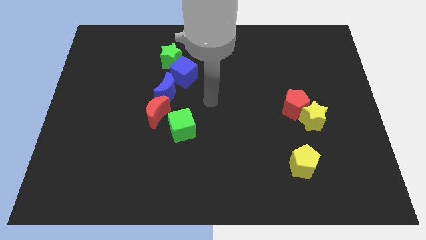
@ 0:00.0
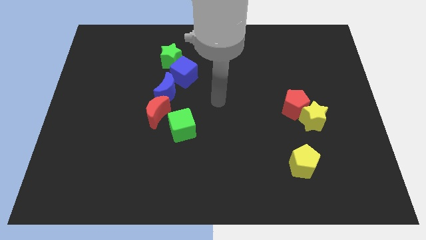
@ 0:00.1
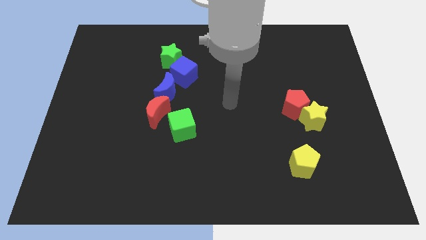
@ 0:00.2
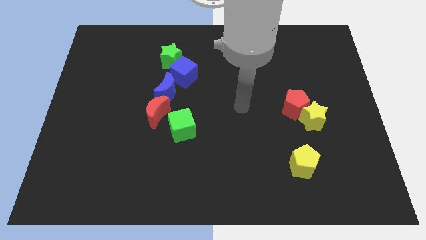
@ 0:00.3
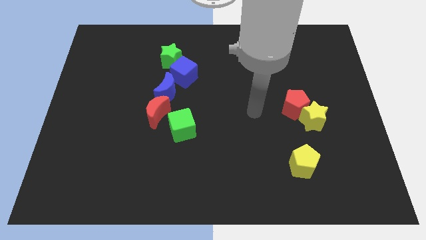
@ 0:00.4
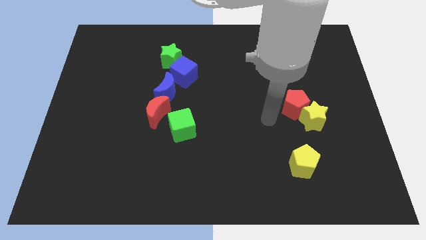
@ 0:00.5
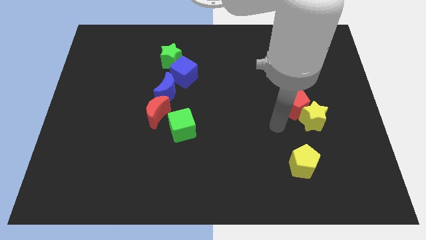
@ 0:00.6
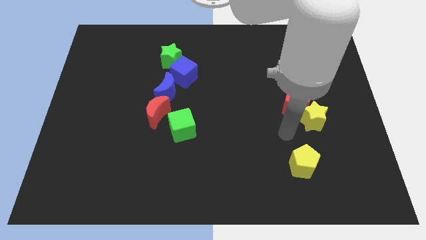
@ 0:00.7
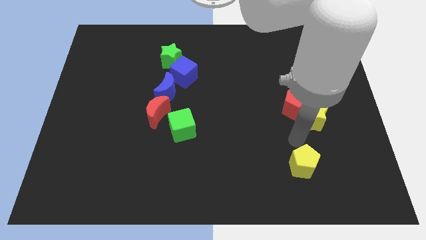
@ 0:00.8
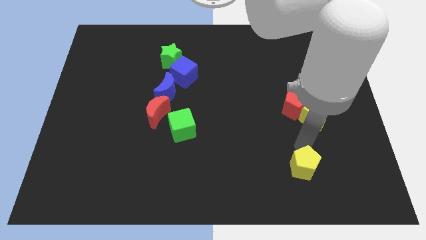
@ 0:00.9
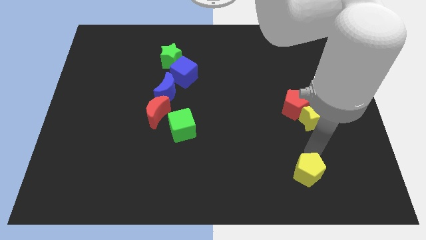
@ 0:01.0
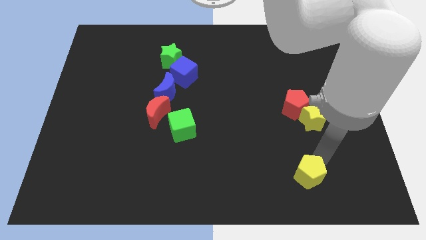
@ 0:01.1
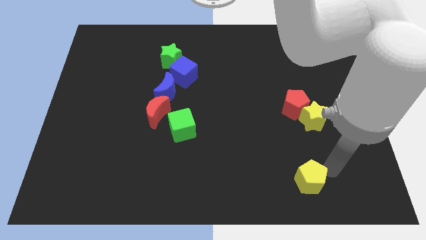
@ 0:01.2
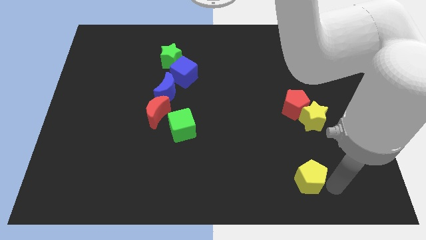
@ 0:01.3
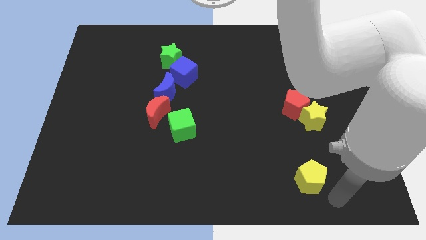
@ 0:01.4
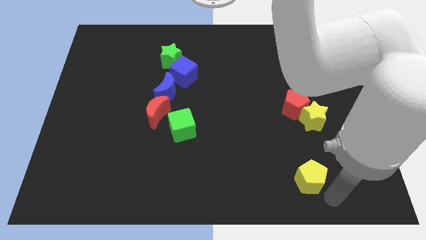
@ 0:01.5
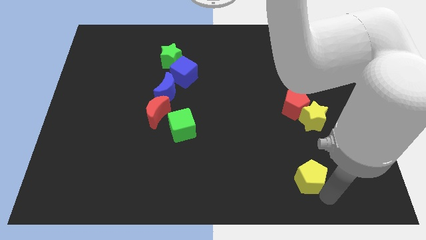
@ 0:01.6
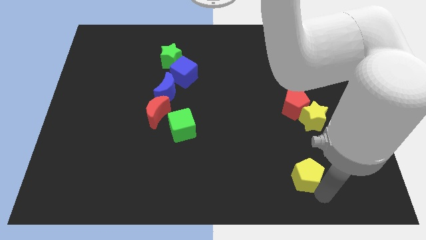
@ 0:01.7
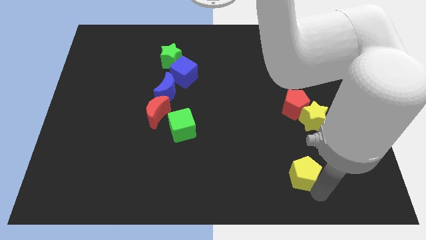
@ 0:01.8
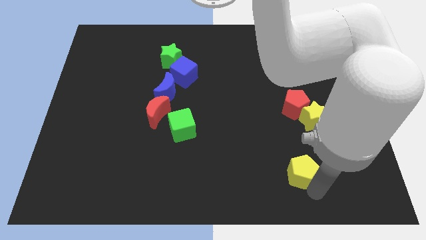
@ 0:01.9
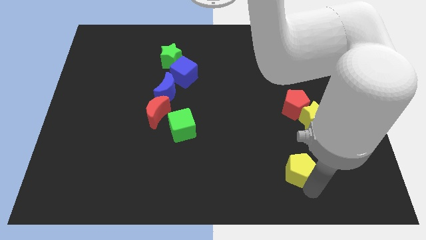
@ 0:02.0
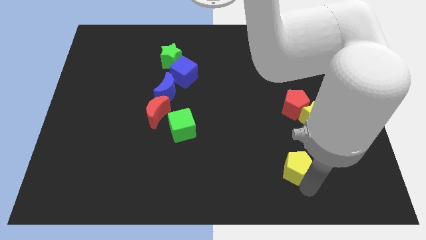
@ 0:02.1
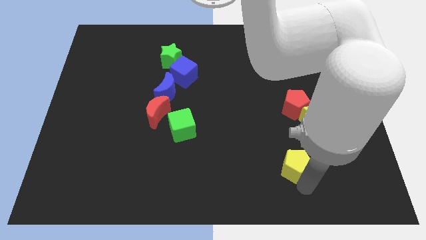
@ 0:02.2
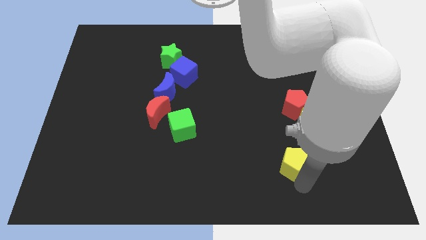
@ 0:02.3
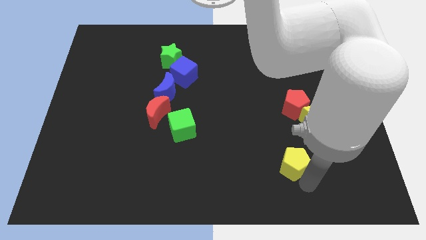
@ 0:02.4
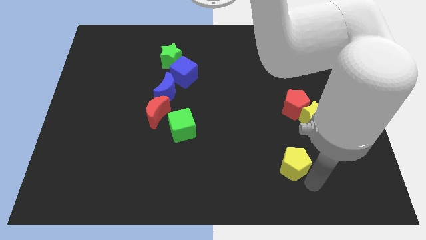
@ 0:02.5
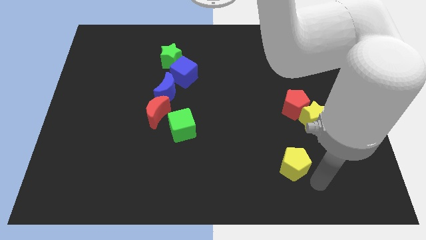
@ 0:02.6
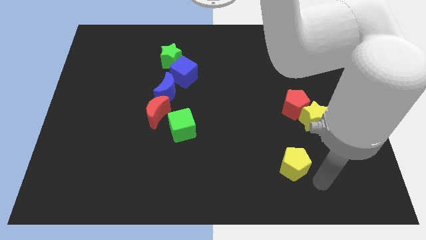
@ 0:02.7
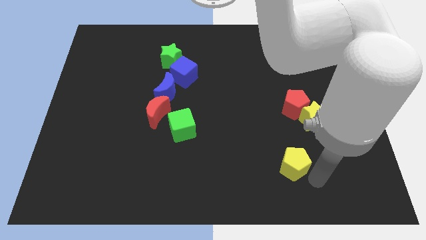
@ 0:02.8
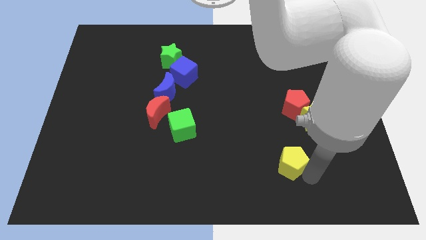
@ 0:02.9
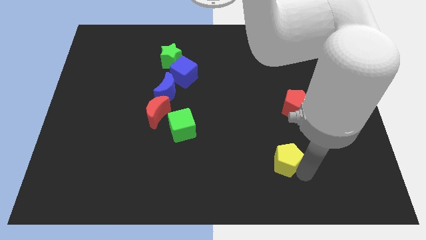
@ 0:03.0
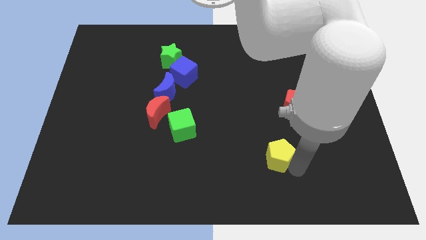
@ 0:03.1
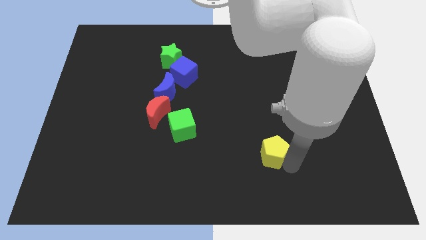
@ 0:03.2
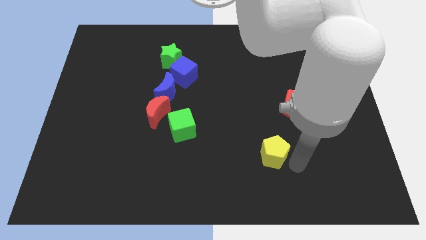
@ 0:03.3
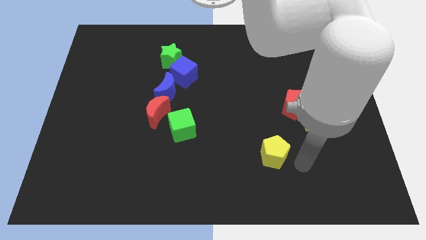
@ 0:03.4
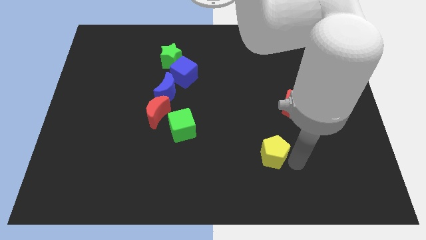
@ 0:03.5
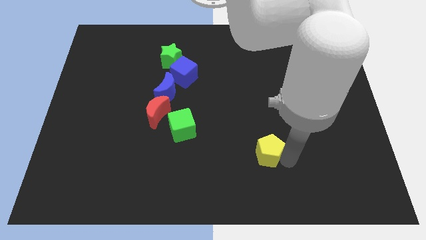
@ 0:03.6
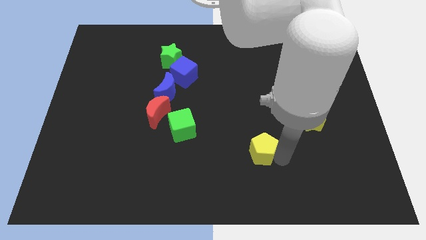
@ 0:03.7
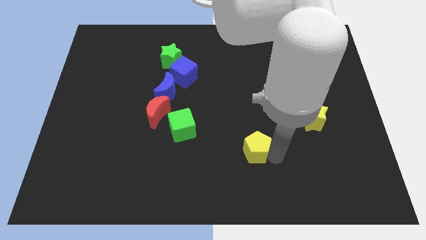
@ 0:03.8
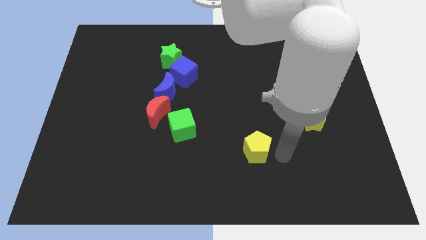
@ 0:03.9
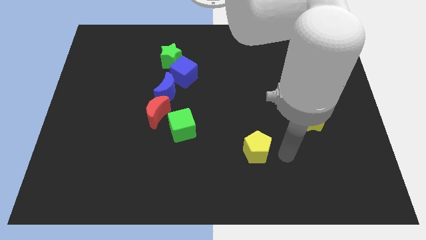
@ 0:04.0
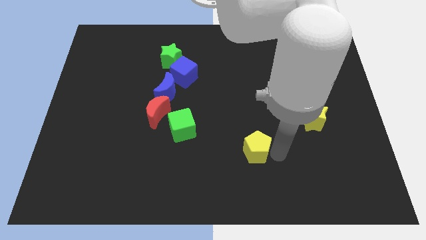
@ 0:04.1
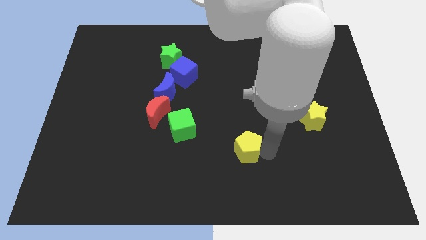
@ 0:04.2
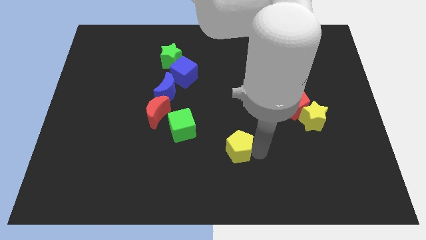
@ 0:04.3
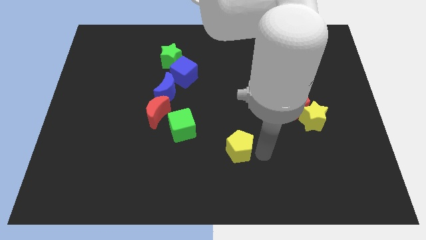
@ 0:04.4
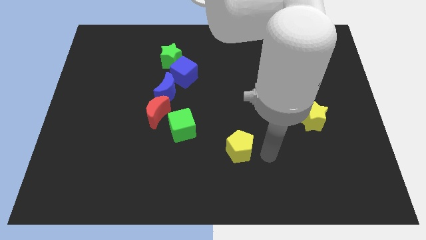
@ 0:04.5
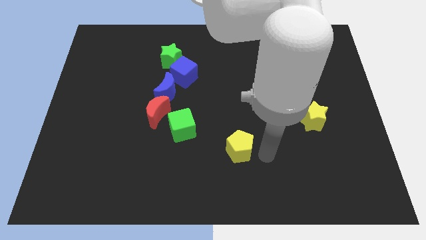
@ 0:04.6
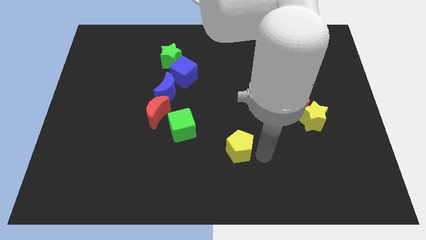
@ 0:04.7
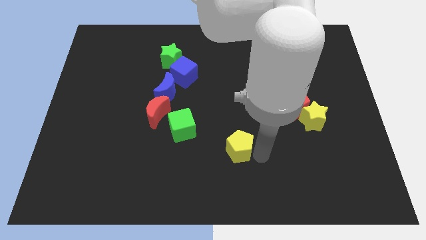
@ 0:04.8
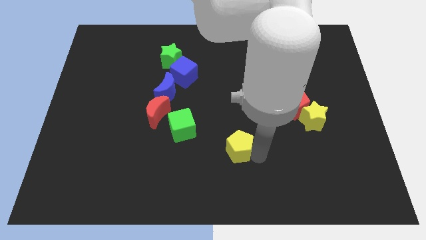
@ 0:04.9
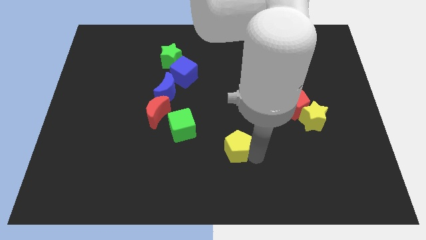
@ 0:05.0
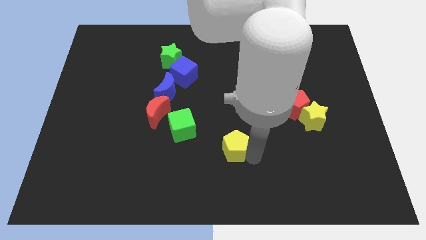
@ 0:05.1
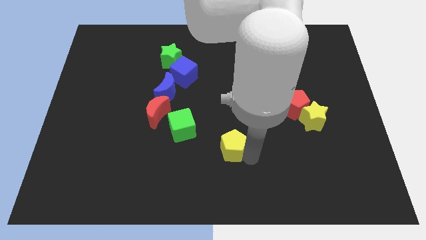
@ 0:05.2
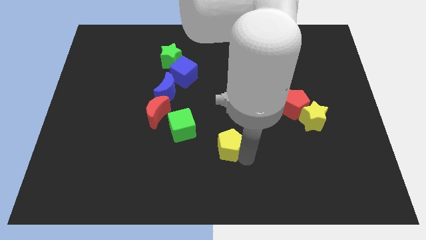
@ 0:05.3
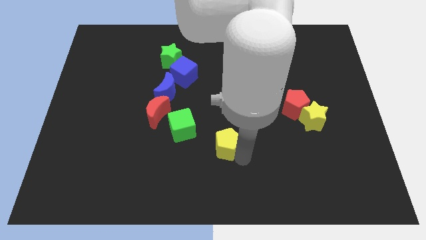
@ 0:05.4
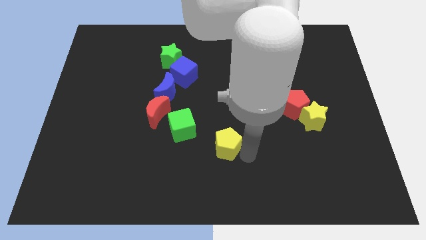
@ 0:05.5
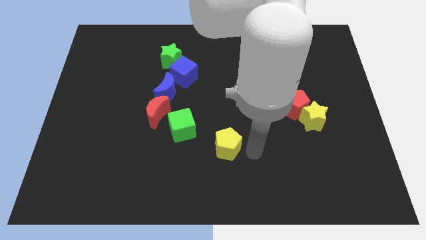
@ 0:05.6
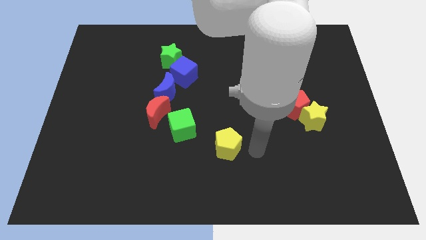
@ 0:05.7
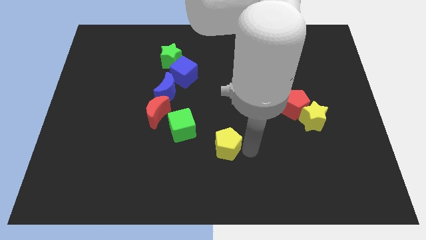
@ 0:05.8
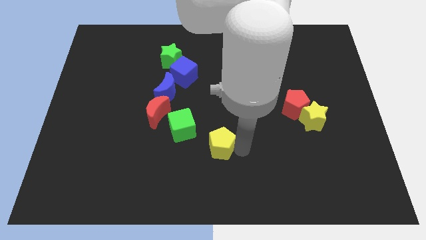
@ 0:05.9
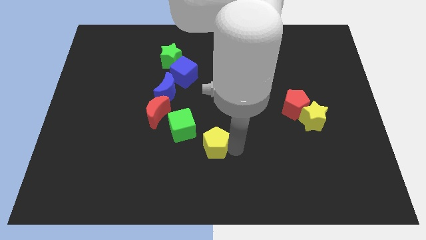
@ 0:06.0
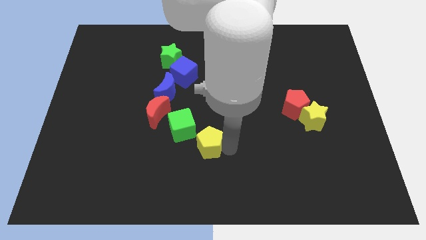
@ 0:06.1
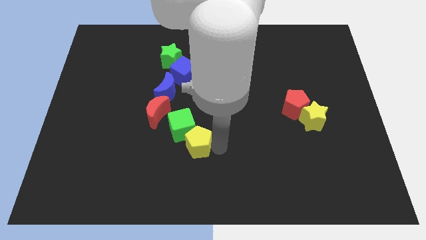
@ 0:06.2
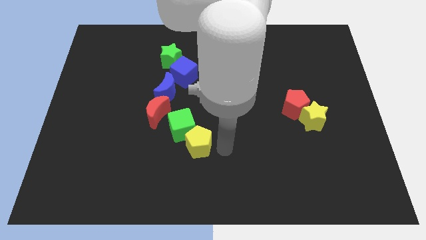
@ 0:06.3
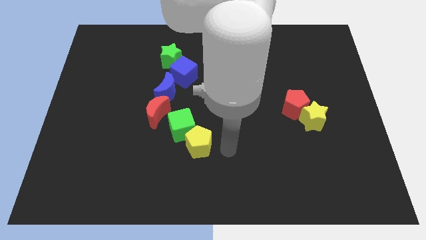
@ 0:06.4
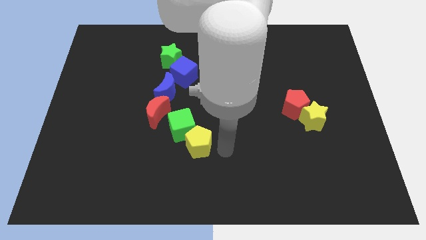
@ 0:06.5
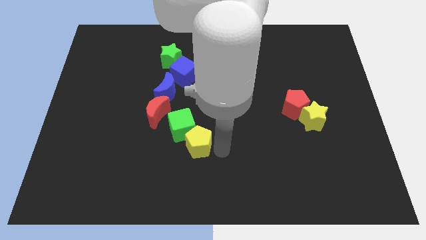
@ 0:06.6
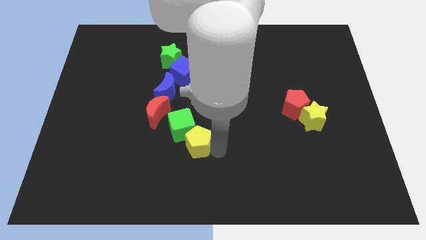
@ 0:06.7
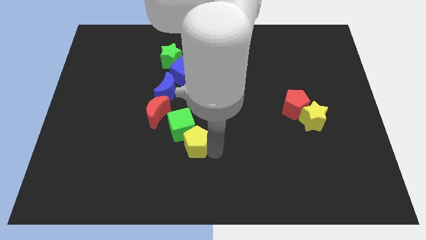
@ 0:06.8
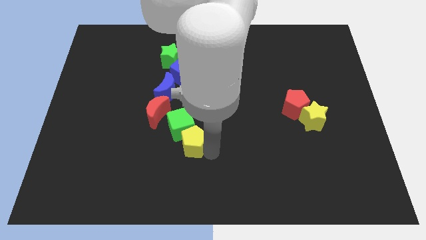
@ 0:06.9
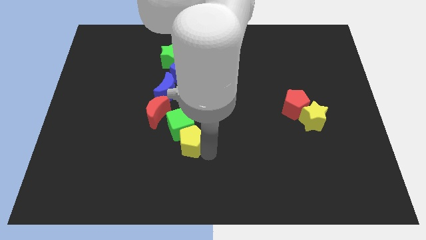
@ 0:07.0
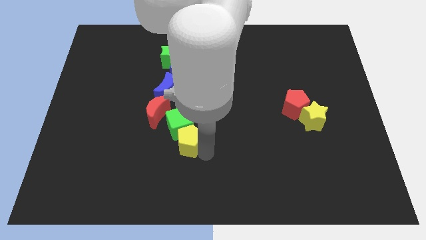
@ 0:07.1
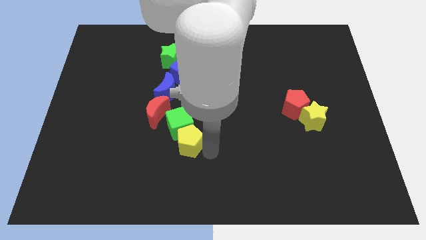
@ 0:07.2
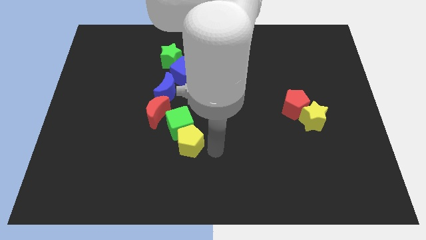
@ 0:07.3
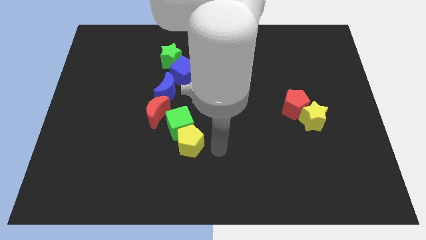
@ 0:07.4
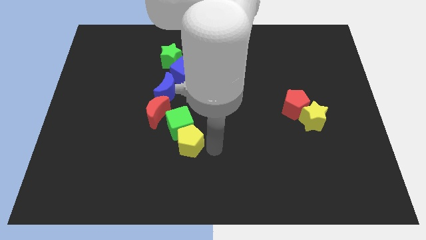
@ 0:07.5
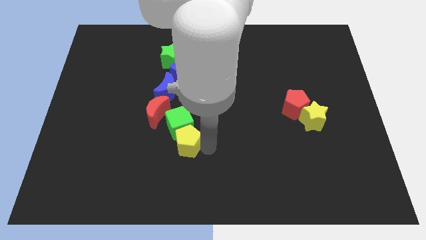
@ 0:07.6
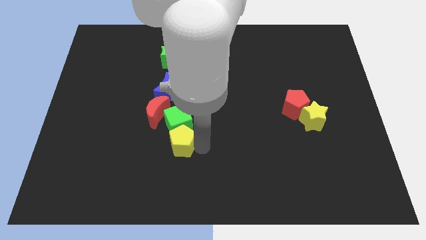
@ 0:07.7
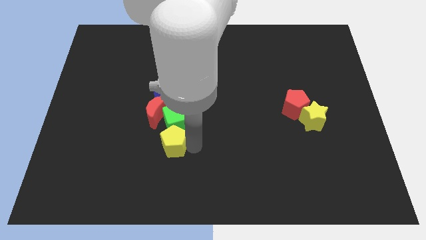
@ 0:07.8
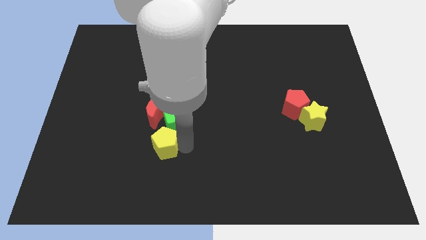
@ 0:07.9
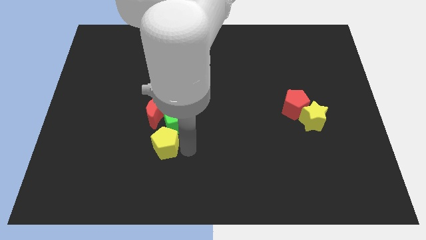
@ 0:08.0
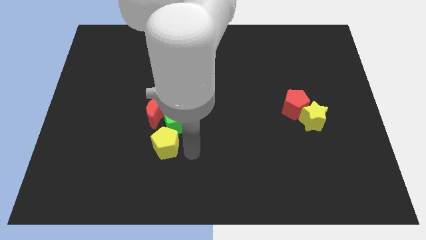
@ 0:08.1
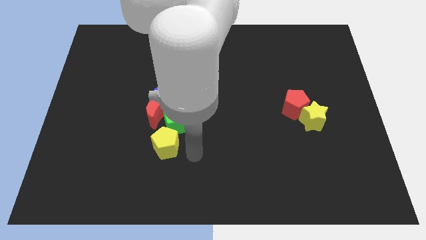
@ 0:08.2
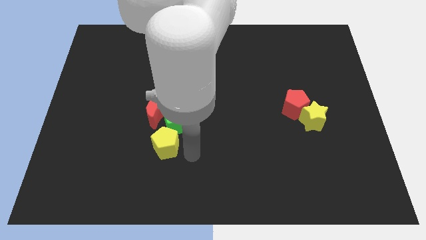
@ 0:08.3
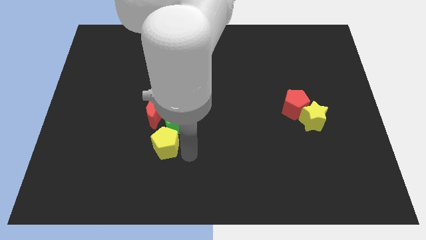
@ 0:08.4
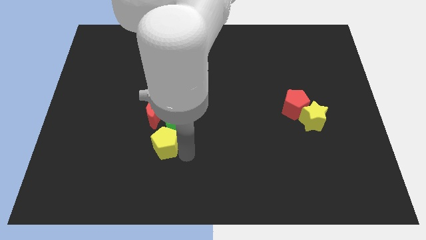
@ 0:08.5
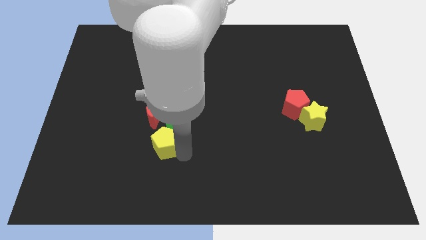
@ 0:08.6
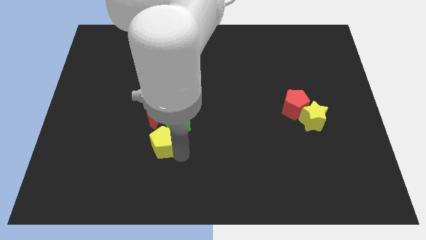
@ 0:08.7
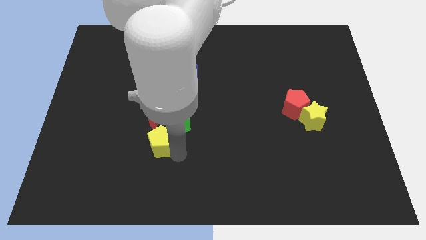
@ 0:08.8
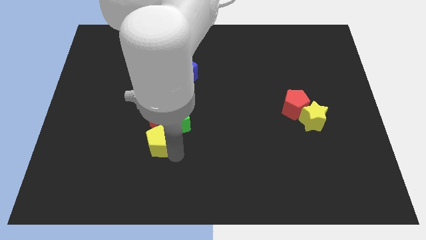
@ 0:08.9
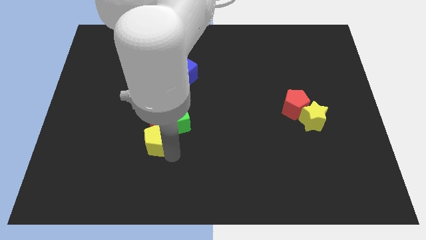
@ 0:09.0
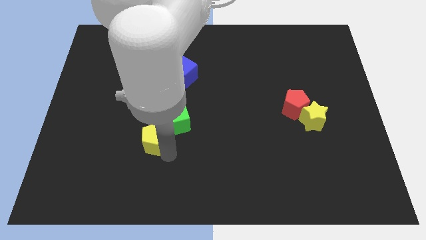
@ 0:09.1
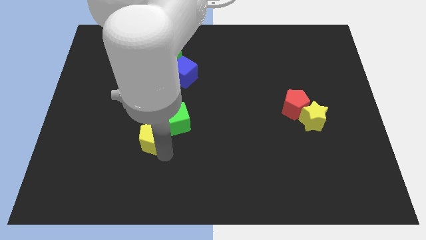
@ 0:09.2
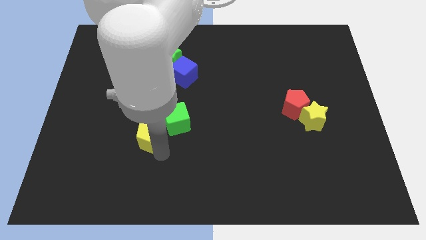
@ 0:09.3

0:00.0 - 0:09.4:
push the yellow pentagon to the bottom left of the red moon
